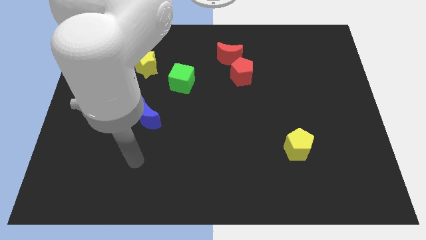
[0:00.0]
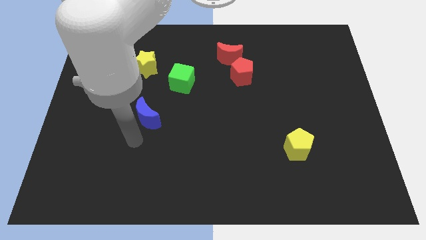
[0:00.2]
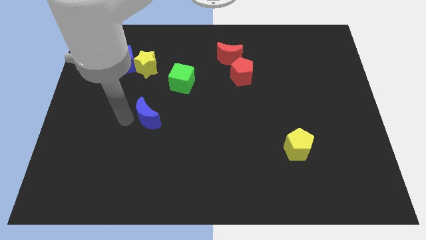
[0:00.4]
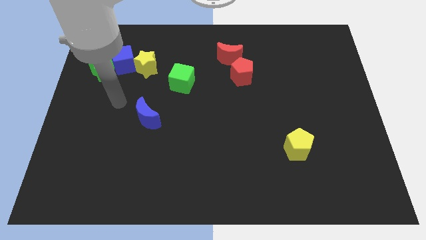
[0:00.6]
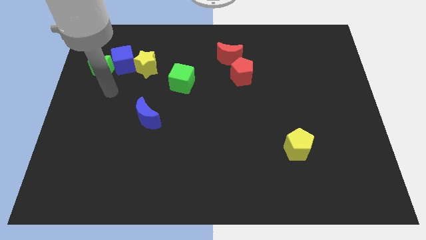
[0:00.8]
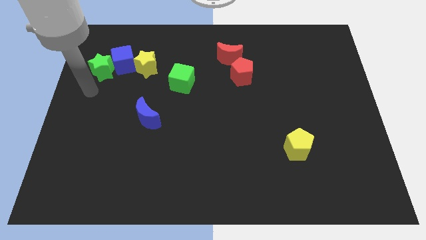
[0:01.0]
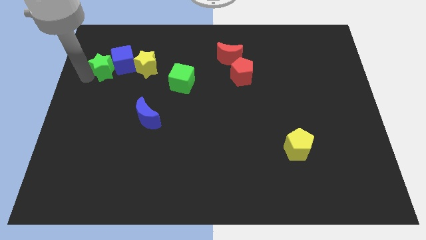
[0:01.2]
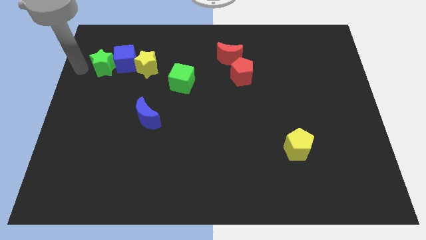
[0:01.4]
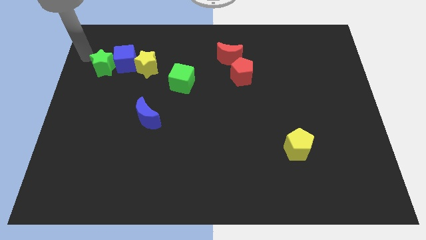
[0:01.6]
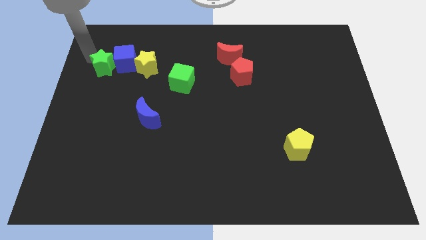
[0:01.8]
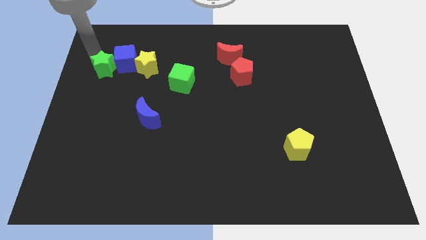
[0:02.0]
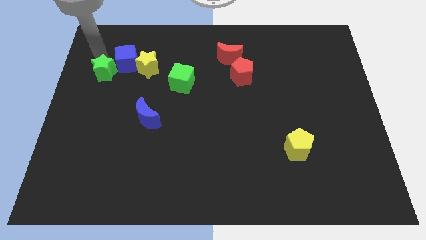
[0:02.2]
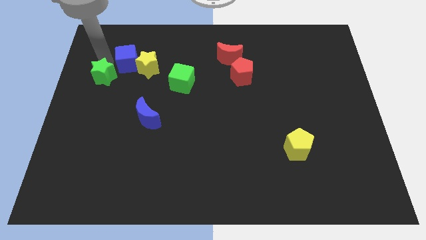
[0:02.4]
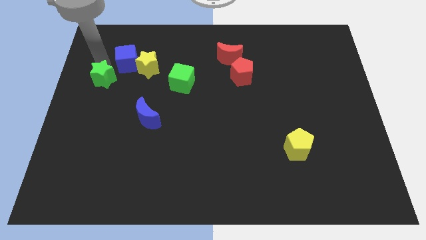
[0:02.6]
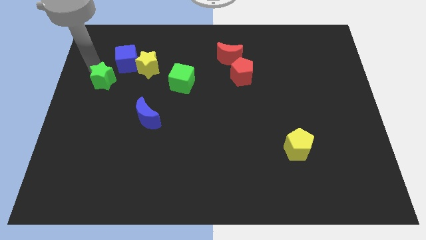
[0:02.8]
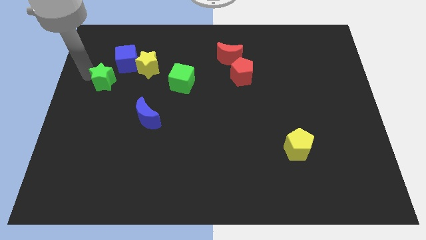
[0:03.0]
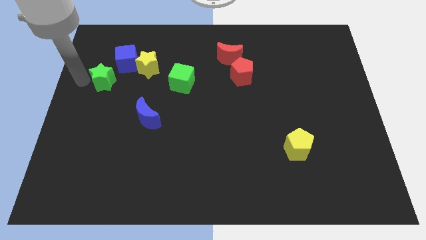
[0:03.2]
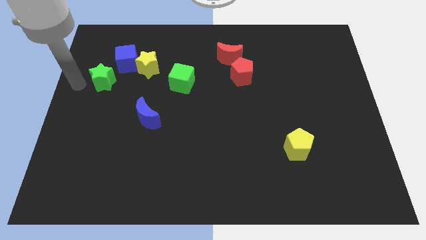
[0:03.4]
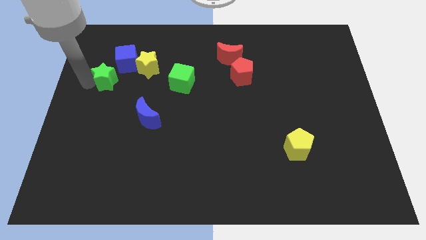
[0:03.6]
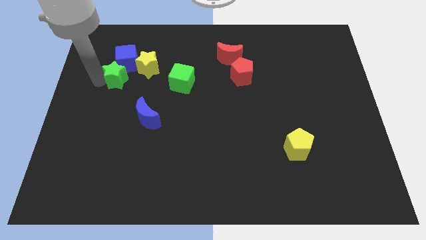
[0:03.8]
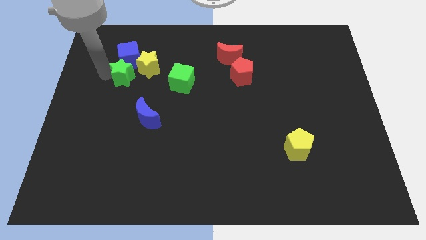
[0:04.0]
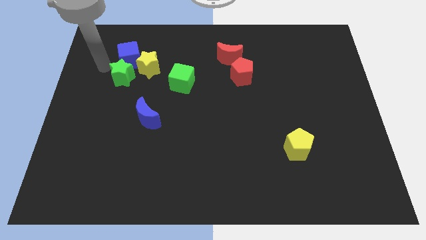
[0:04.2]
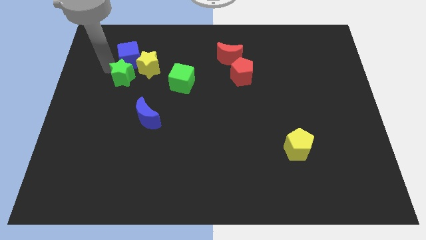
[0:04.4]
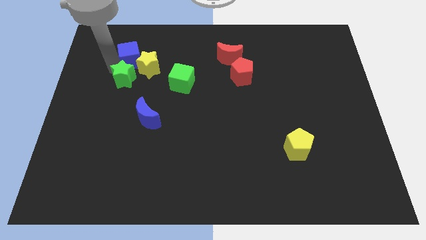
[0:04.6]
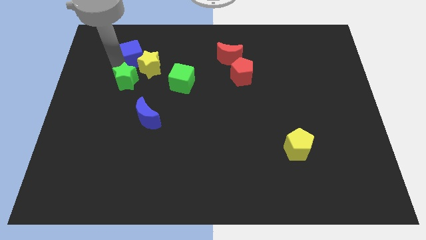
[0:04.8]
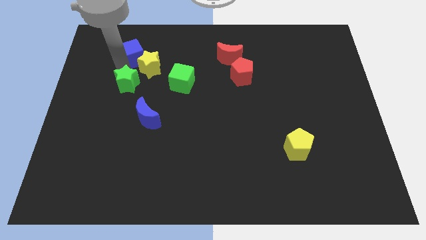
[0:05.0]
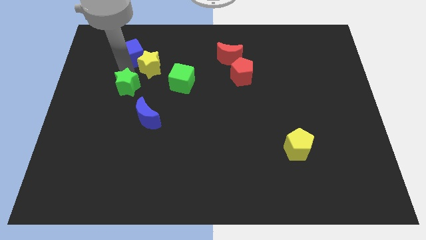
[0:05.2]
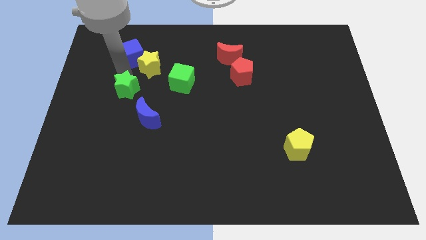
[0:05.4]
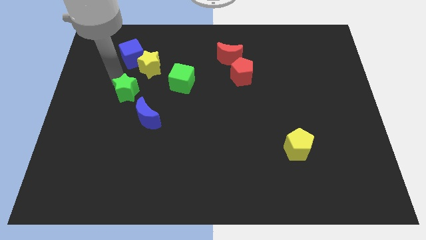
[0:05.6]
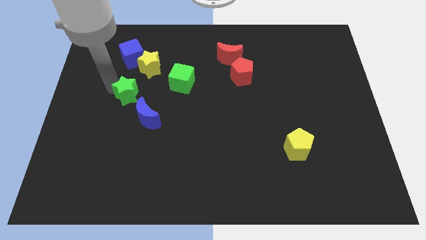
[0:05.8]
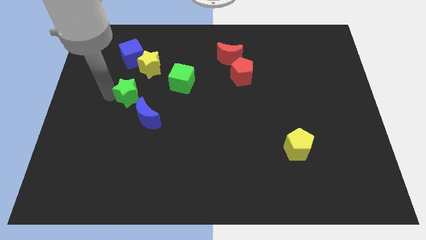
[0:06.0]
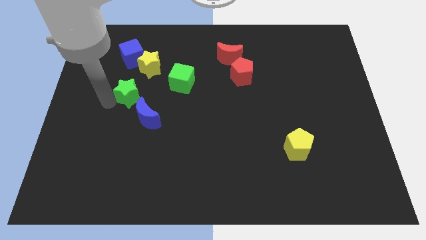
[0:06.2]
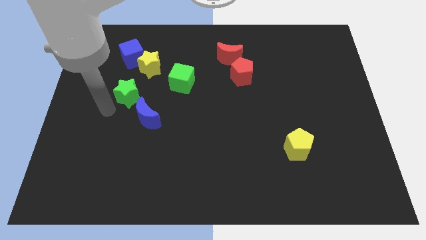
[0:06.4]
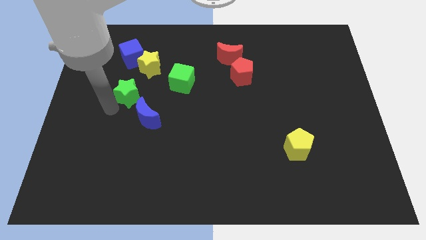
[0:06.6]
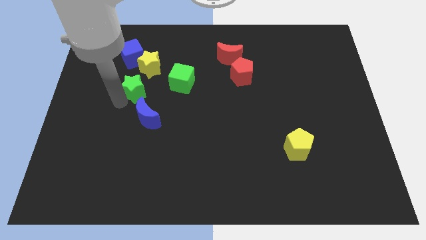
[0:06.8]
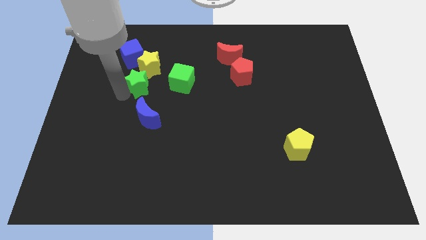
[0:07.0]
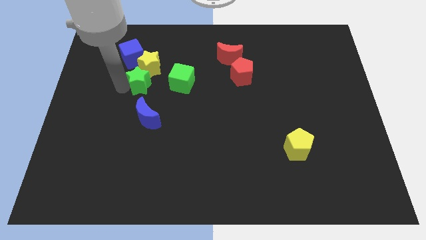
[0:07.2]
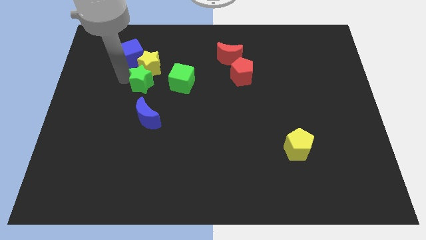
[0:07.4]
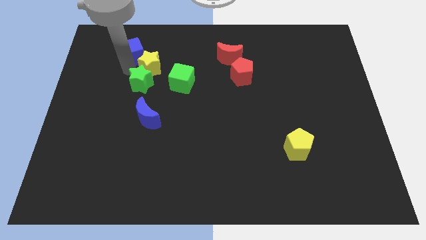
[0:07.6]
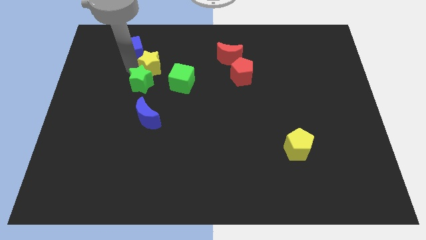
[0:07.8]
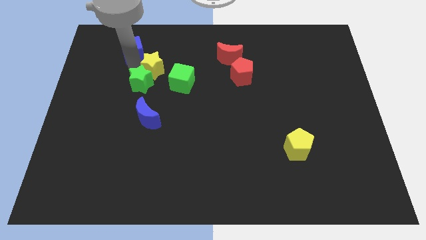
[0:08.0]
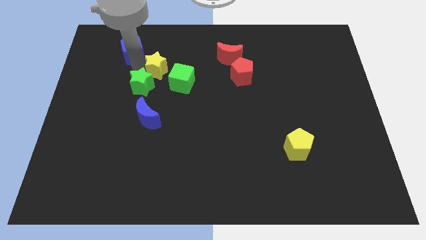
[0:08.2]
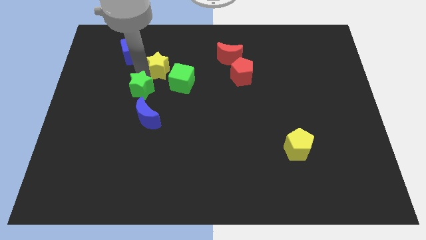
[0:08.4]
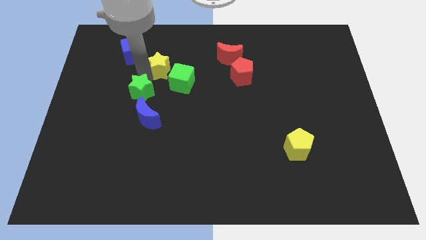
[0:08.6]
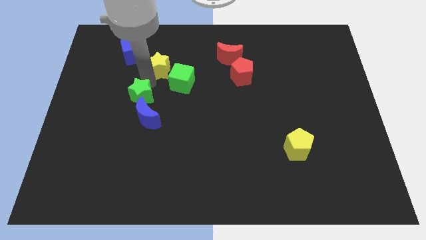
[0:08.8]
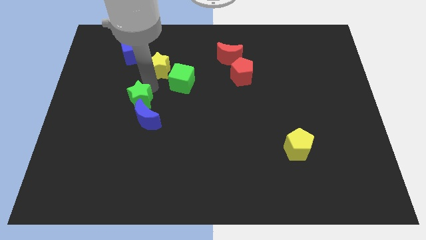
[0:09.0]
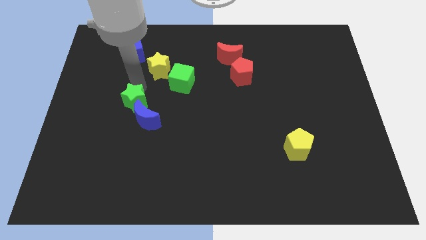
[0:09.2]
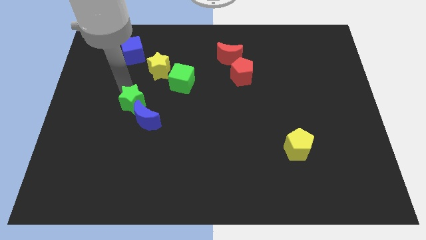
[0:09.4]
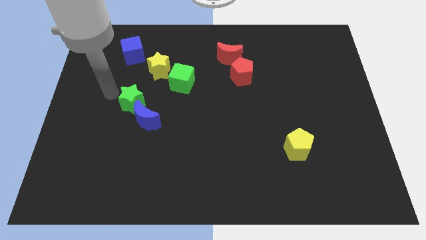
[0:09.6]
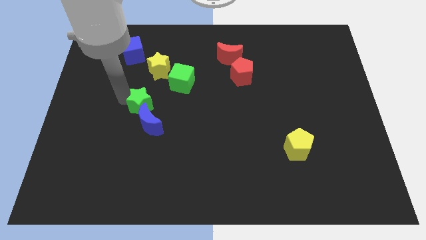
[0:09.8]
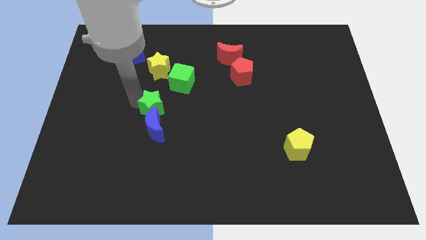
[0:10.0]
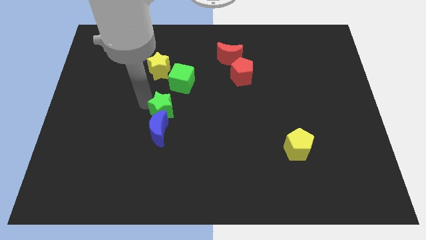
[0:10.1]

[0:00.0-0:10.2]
move the green star down and to the right diagonally

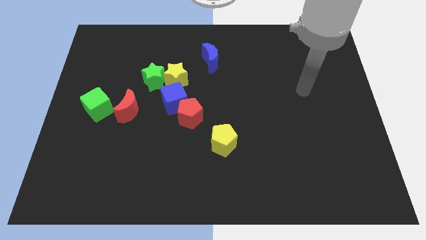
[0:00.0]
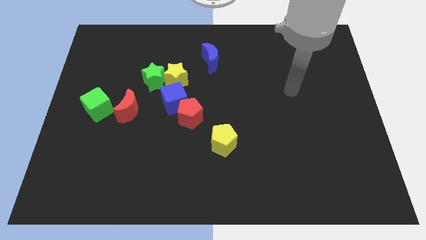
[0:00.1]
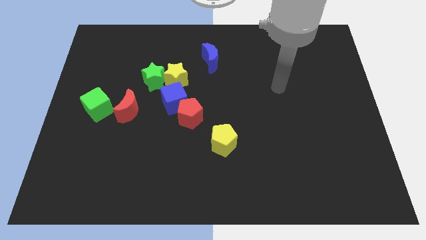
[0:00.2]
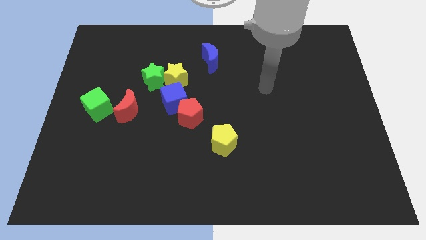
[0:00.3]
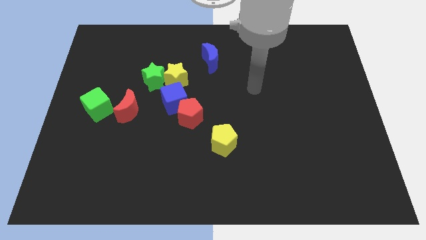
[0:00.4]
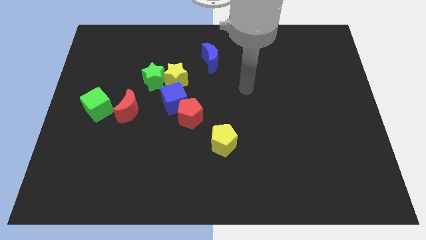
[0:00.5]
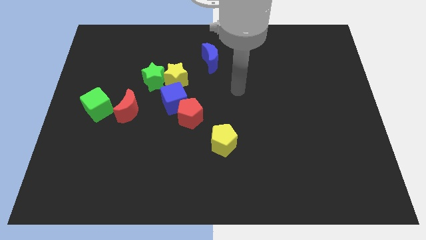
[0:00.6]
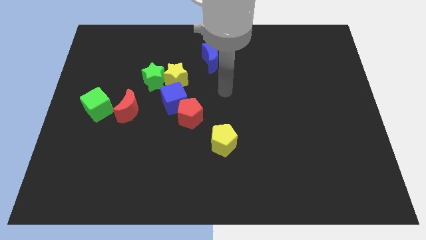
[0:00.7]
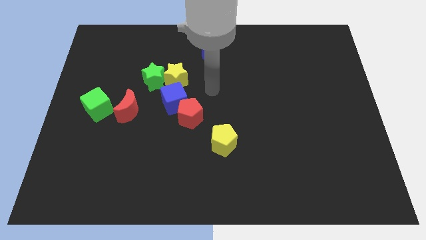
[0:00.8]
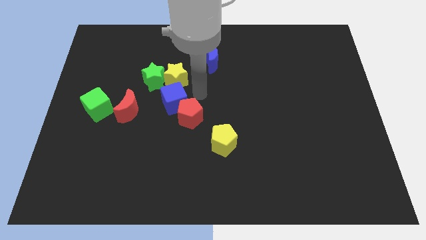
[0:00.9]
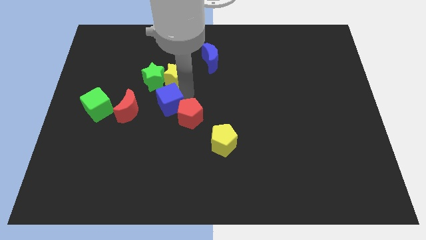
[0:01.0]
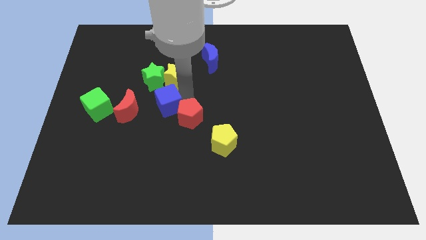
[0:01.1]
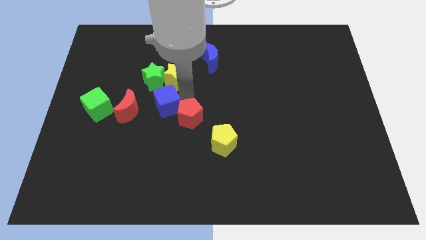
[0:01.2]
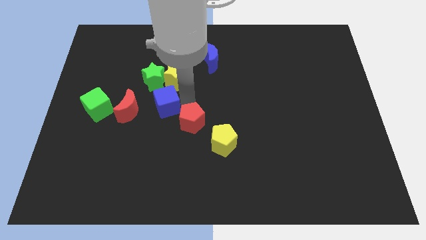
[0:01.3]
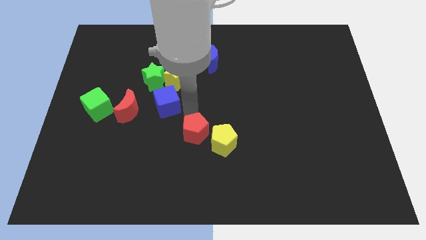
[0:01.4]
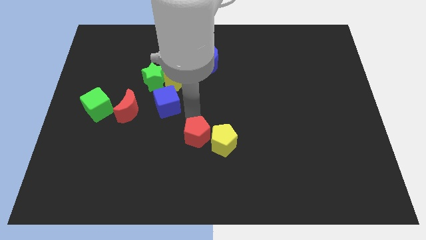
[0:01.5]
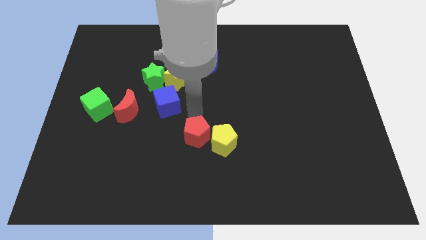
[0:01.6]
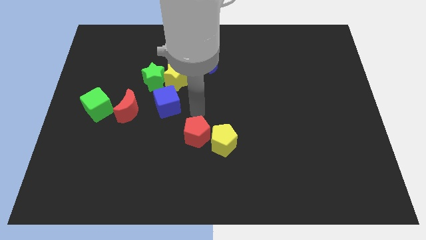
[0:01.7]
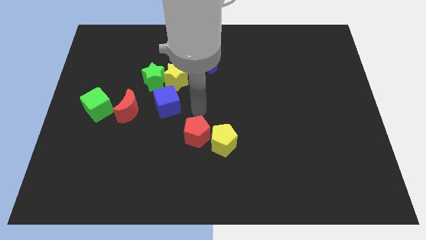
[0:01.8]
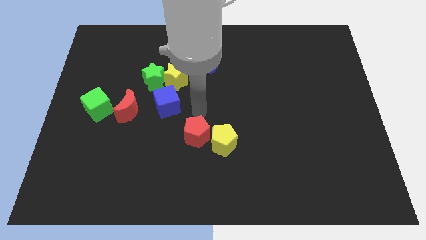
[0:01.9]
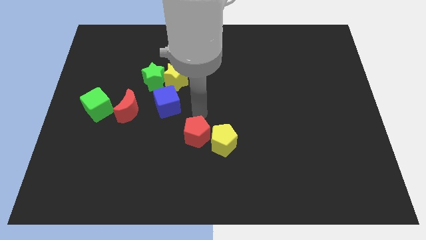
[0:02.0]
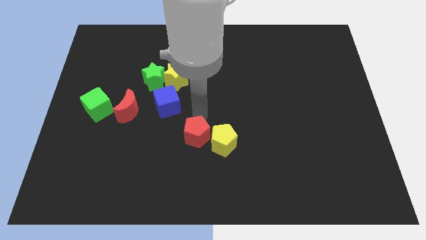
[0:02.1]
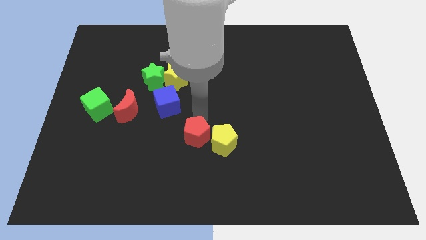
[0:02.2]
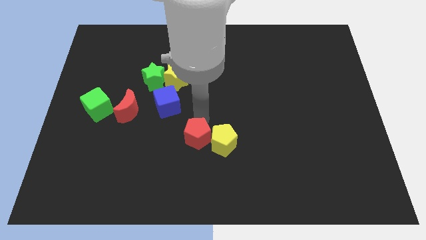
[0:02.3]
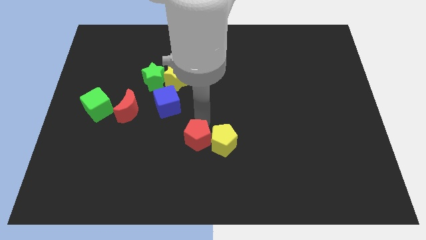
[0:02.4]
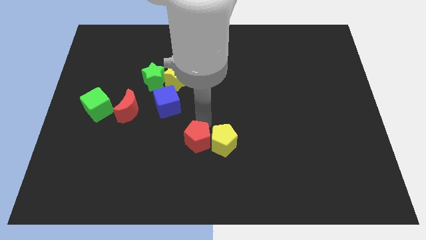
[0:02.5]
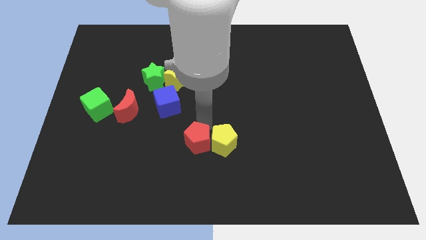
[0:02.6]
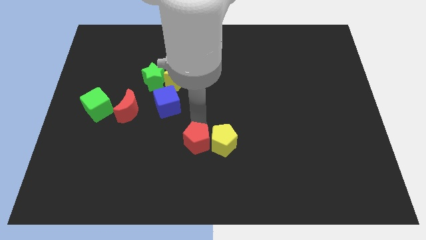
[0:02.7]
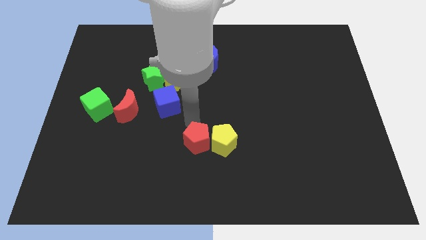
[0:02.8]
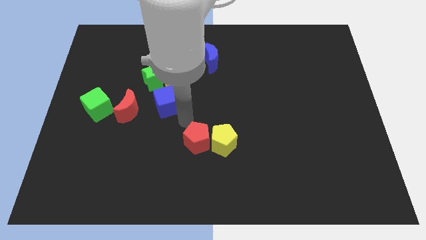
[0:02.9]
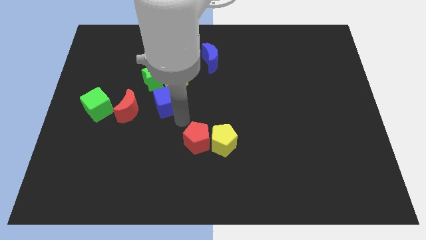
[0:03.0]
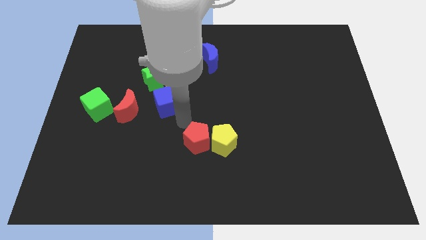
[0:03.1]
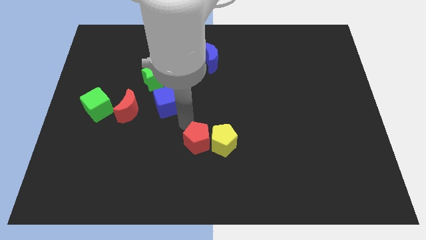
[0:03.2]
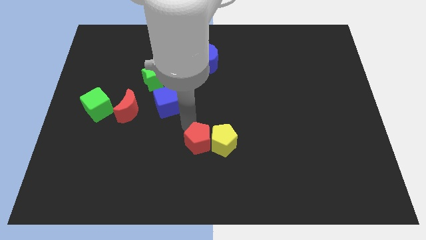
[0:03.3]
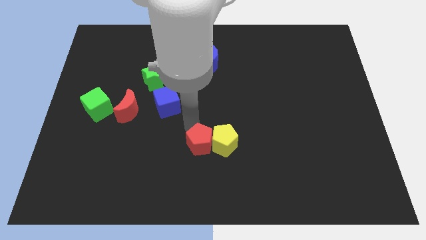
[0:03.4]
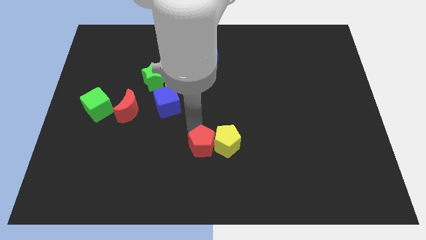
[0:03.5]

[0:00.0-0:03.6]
push the red pentagon down and right a bit
